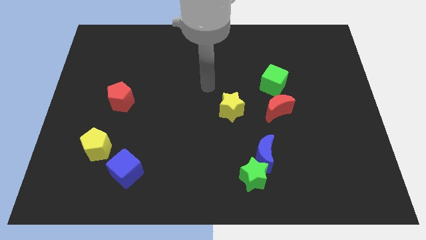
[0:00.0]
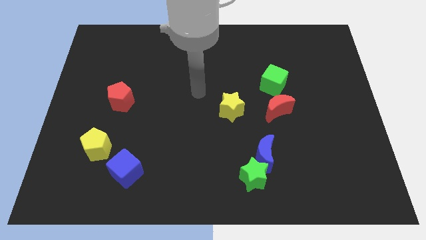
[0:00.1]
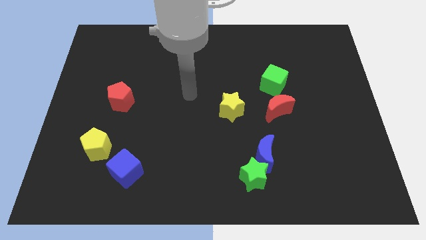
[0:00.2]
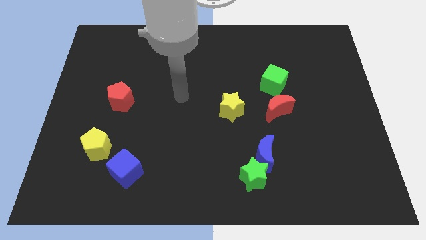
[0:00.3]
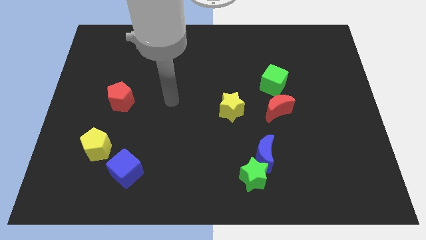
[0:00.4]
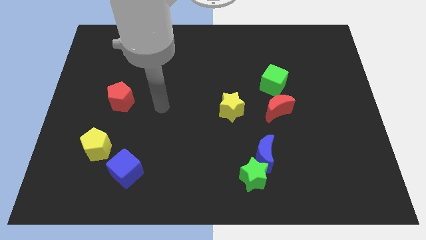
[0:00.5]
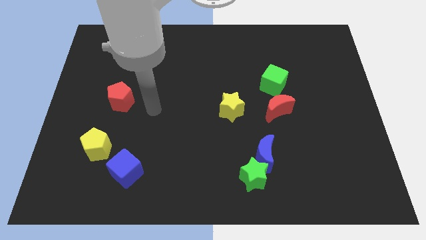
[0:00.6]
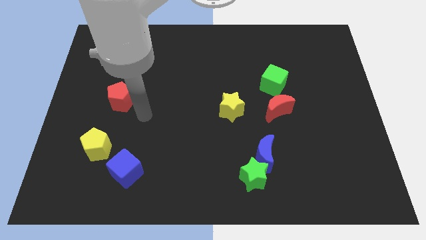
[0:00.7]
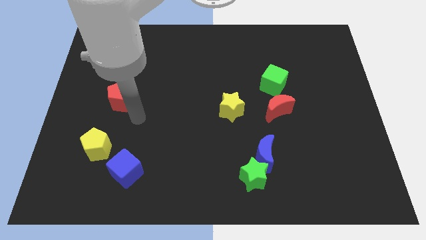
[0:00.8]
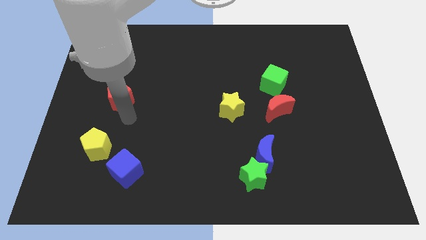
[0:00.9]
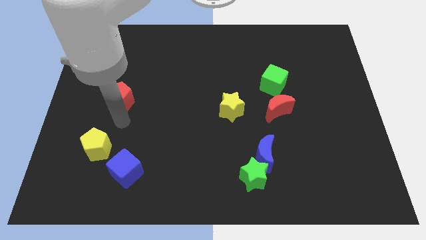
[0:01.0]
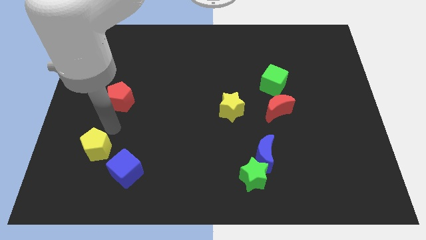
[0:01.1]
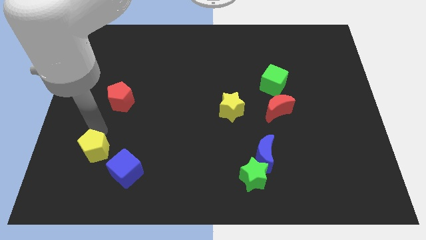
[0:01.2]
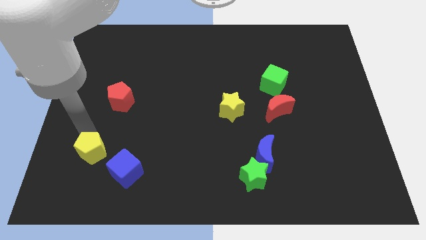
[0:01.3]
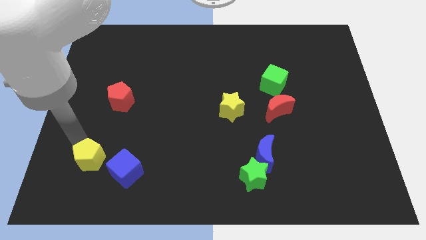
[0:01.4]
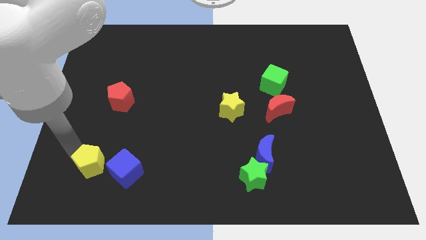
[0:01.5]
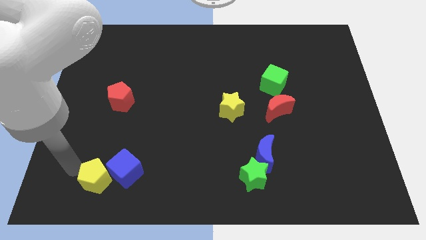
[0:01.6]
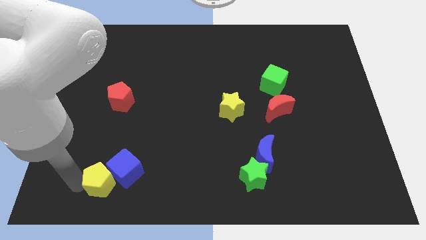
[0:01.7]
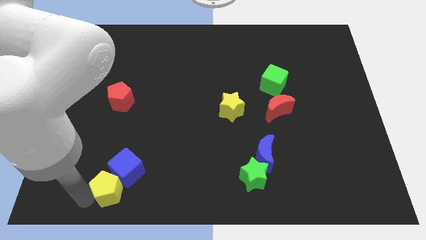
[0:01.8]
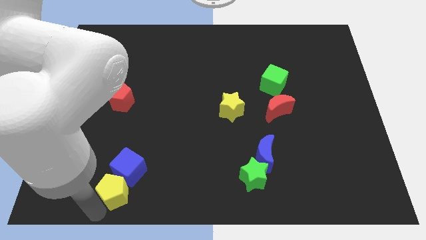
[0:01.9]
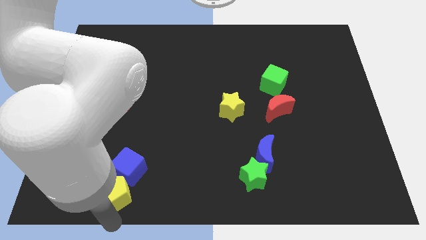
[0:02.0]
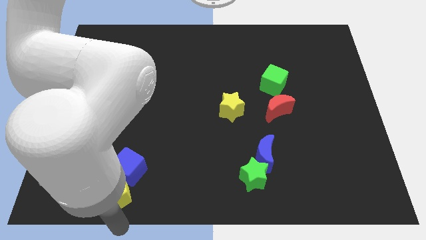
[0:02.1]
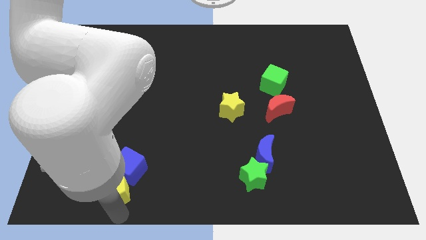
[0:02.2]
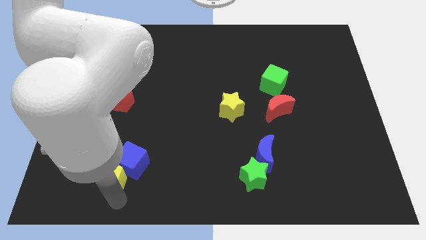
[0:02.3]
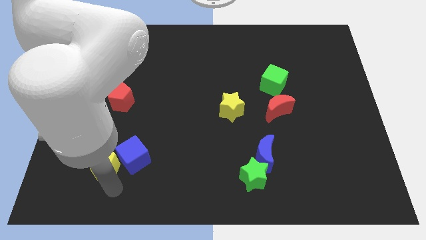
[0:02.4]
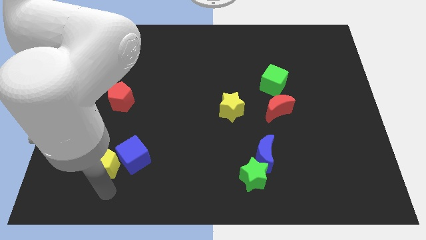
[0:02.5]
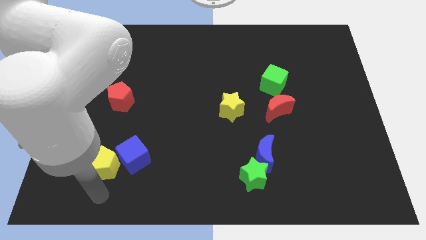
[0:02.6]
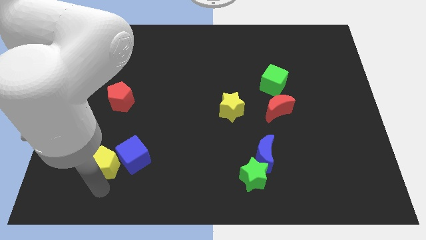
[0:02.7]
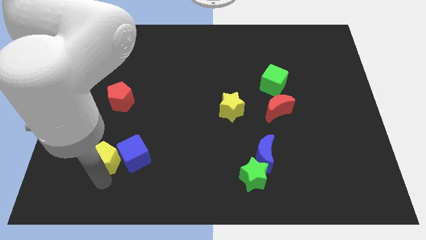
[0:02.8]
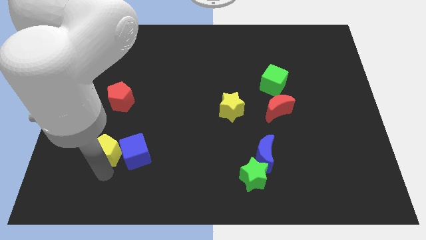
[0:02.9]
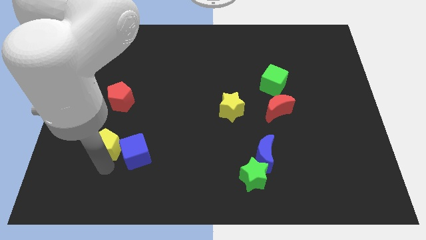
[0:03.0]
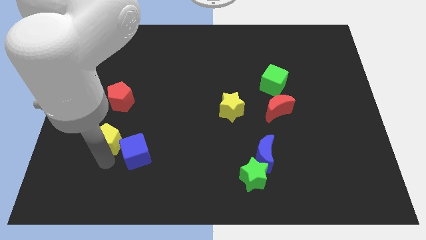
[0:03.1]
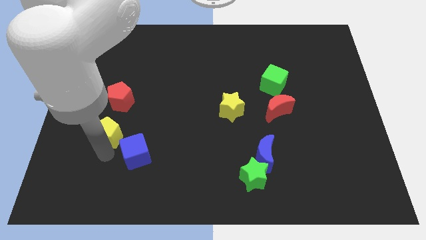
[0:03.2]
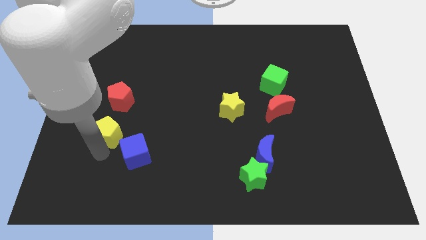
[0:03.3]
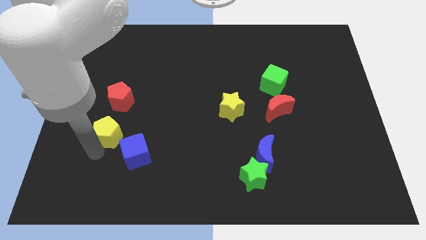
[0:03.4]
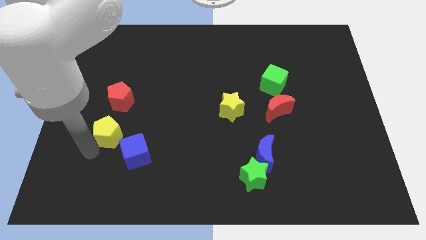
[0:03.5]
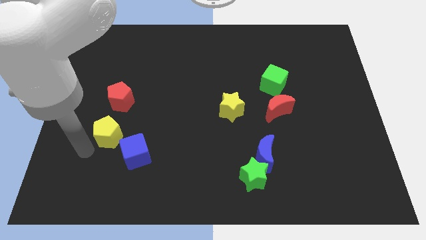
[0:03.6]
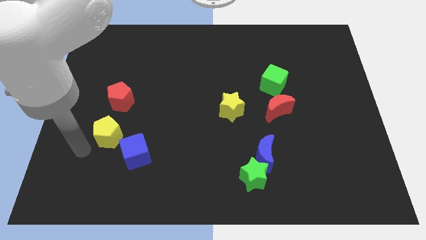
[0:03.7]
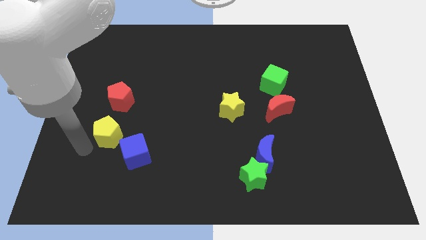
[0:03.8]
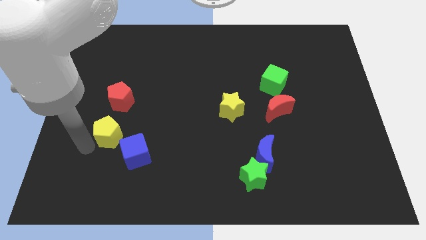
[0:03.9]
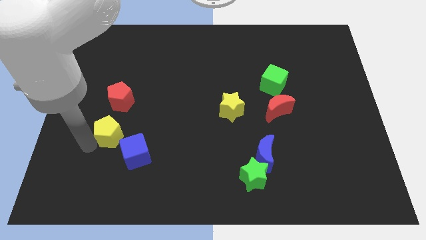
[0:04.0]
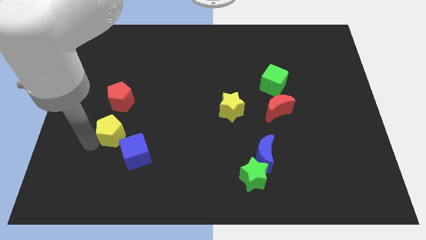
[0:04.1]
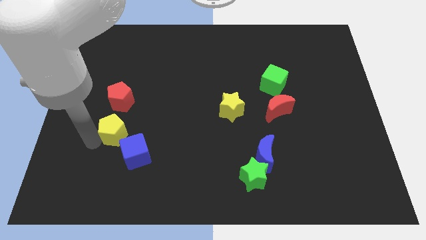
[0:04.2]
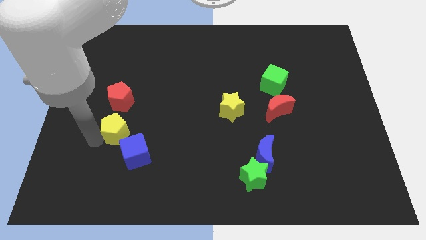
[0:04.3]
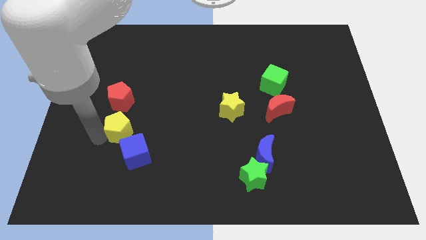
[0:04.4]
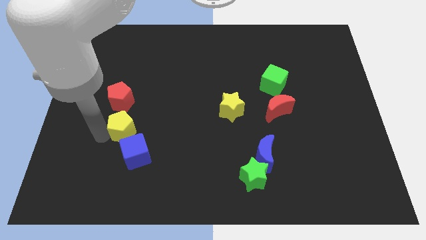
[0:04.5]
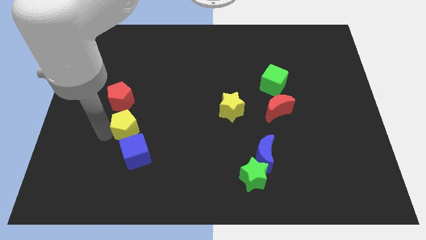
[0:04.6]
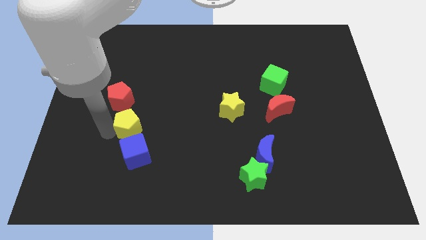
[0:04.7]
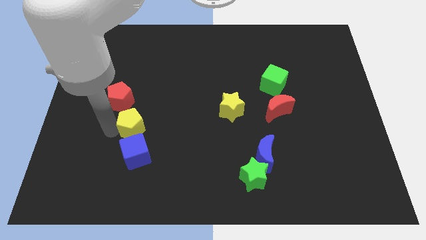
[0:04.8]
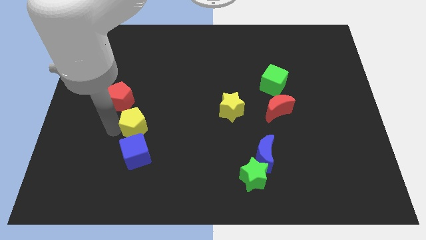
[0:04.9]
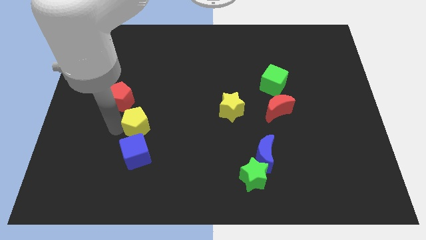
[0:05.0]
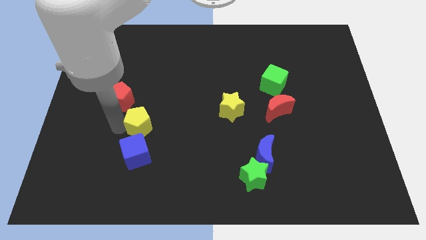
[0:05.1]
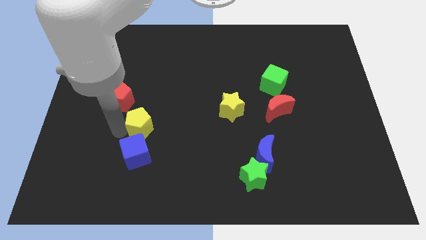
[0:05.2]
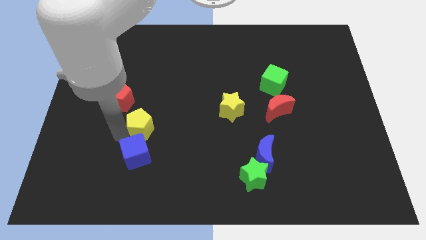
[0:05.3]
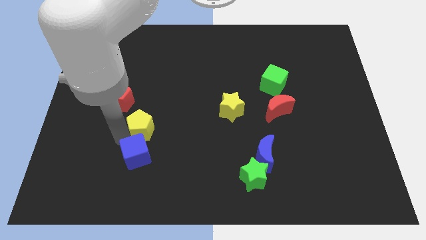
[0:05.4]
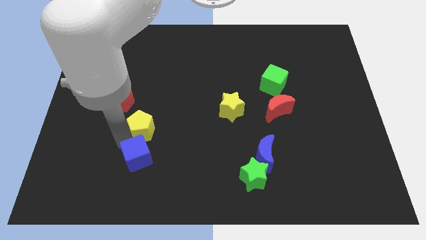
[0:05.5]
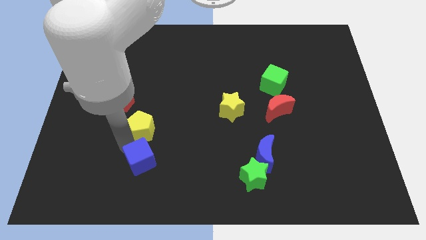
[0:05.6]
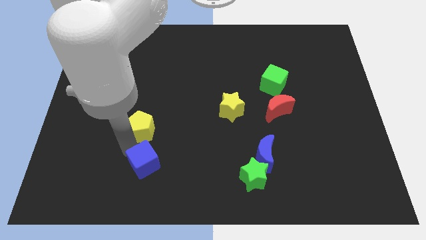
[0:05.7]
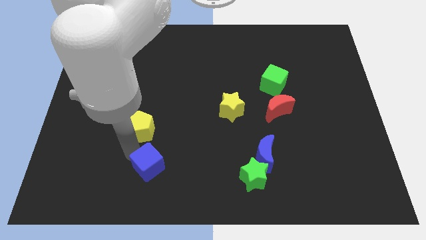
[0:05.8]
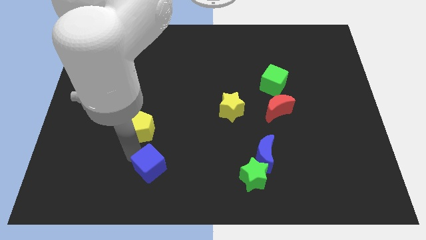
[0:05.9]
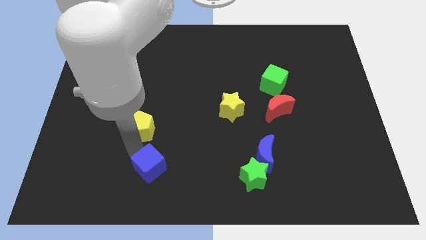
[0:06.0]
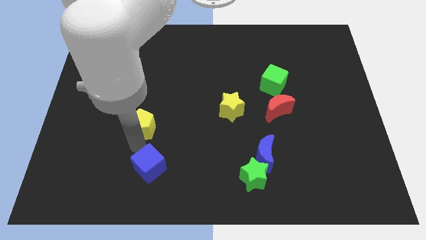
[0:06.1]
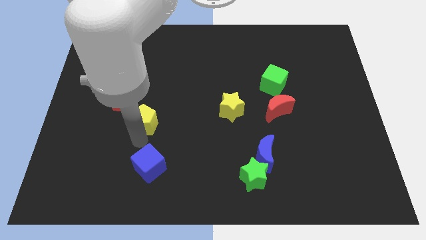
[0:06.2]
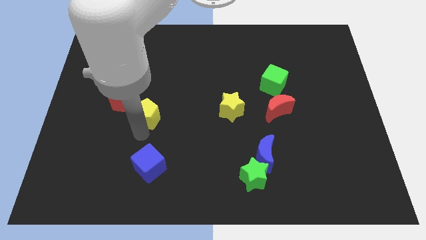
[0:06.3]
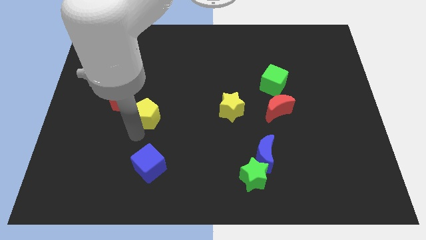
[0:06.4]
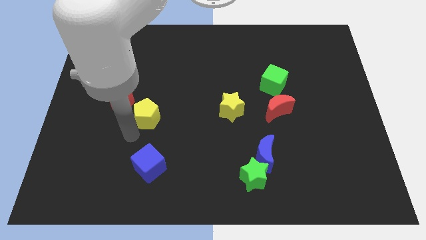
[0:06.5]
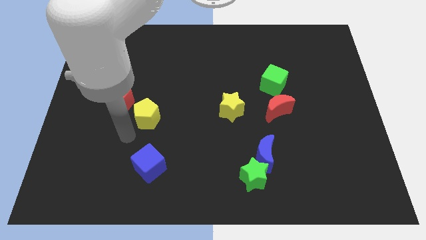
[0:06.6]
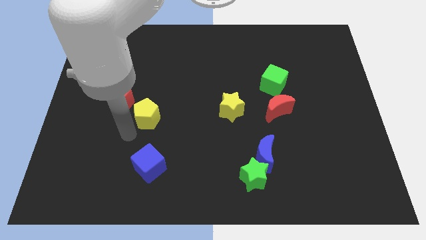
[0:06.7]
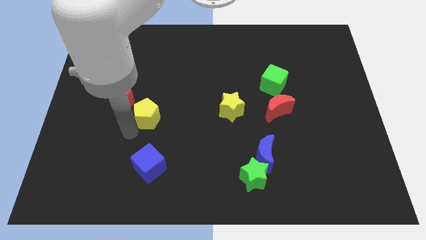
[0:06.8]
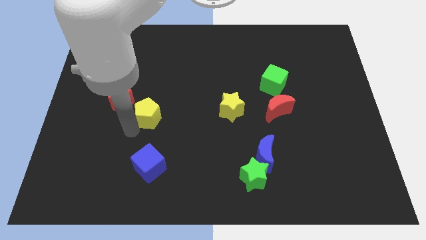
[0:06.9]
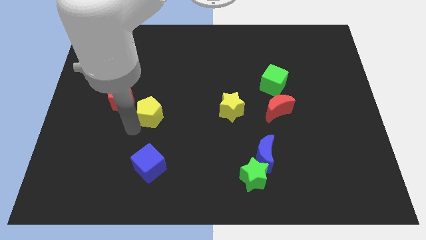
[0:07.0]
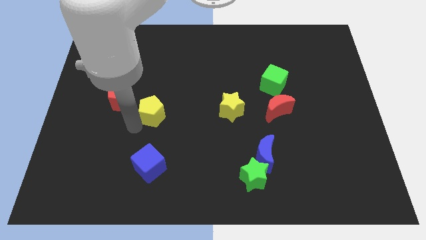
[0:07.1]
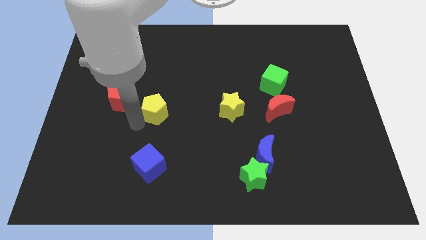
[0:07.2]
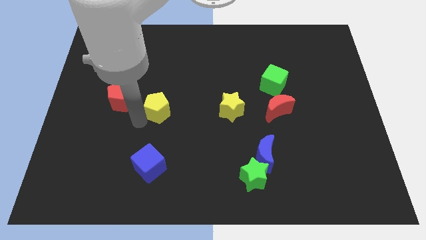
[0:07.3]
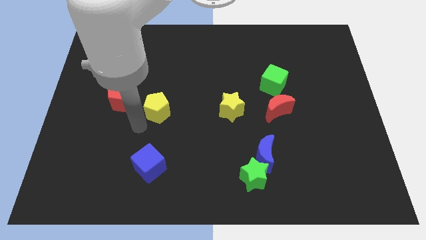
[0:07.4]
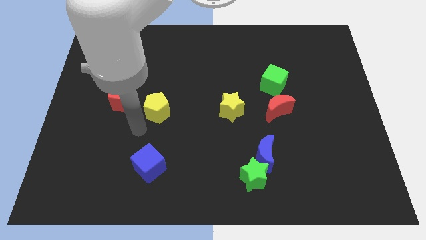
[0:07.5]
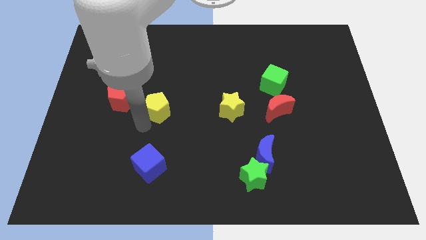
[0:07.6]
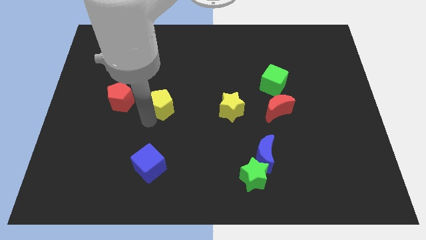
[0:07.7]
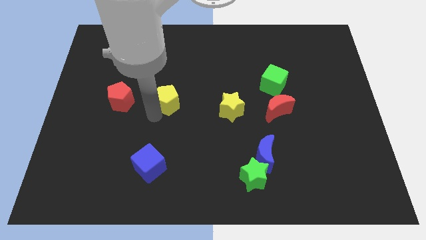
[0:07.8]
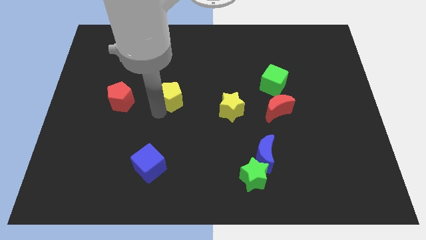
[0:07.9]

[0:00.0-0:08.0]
slide the yellow pentagon upwards and right

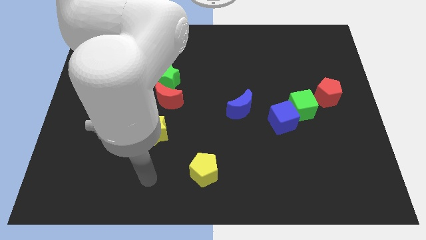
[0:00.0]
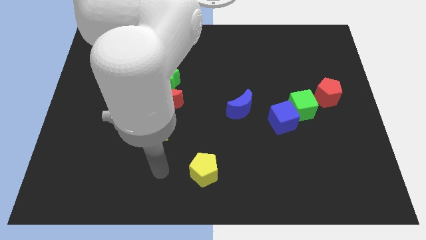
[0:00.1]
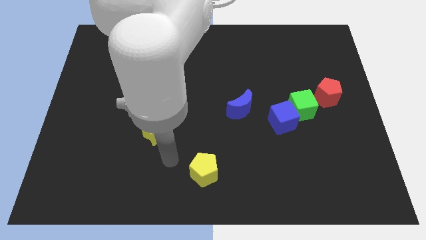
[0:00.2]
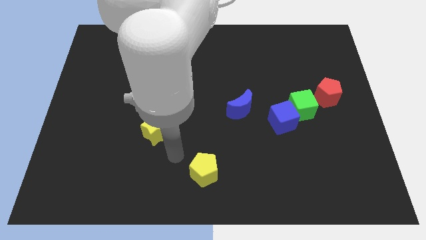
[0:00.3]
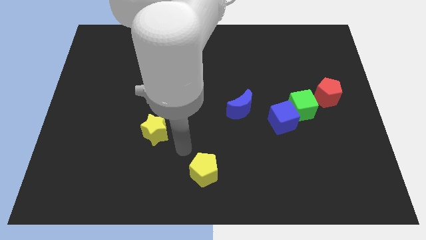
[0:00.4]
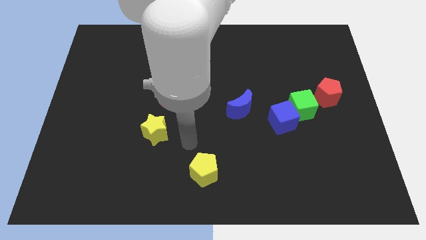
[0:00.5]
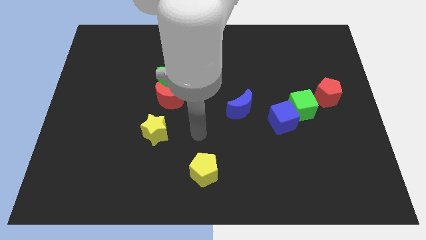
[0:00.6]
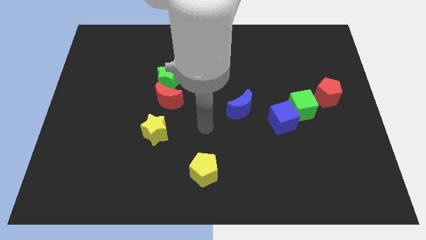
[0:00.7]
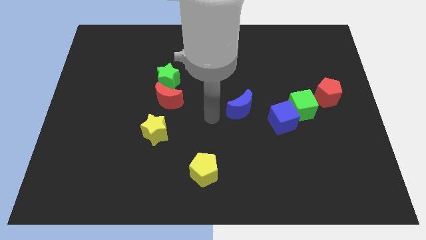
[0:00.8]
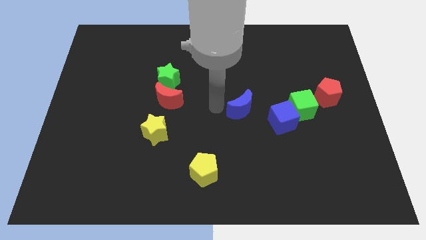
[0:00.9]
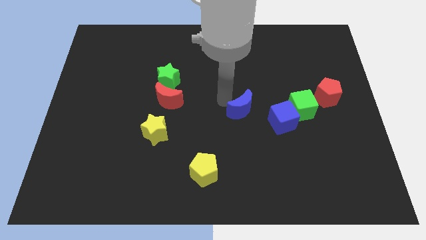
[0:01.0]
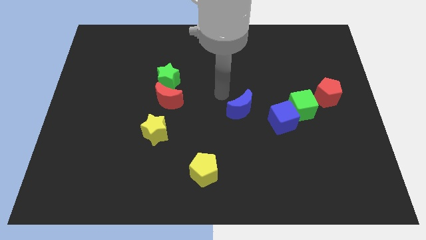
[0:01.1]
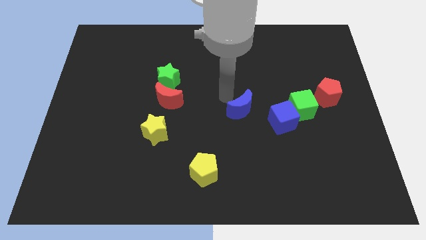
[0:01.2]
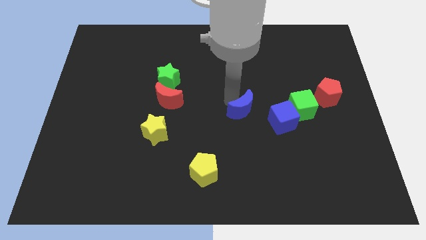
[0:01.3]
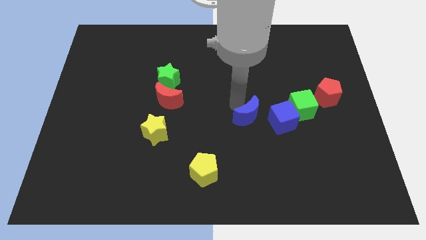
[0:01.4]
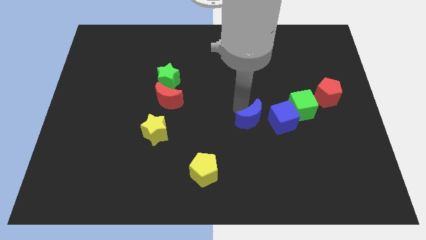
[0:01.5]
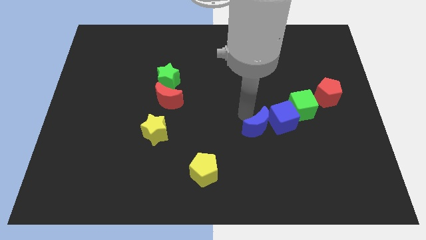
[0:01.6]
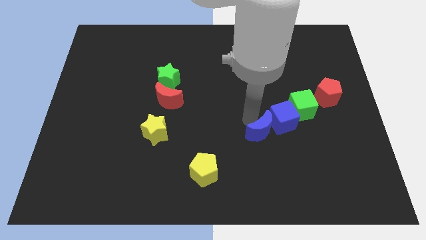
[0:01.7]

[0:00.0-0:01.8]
slide the blue moon somewhat down and then right
